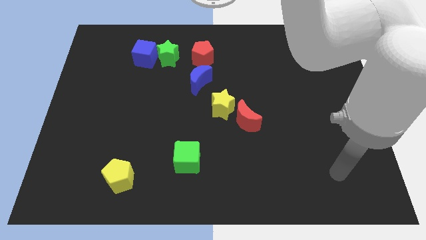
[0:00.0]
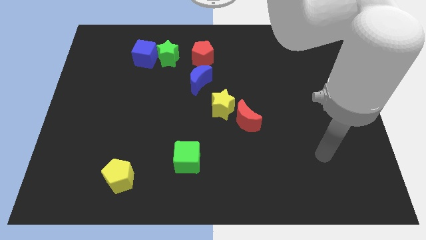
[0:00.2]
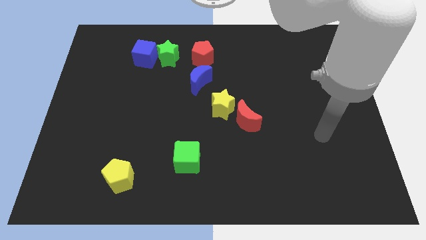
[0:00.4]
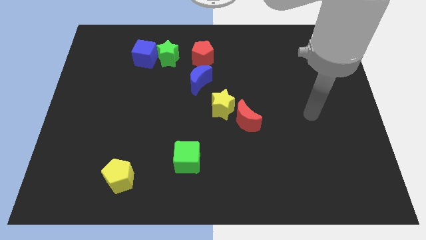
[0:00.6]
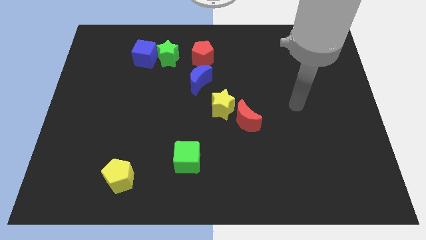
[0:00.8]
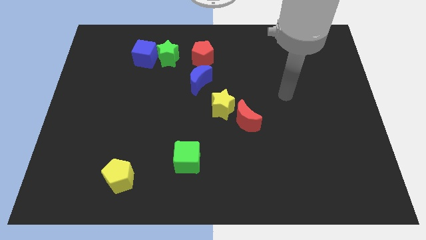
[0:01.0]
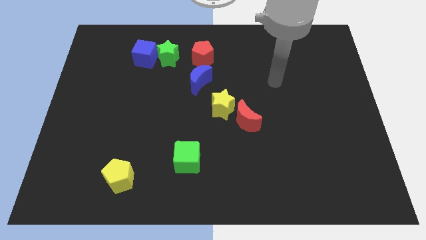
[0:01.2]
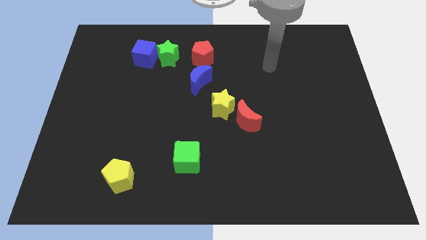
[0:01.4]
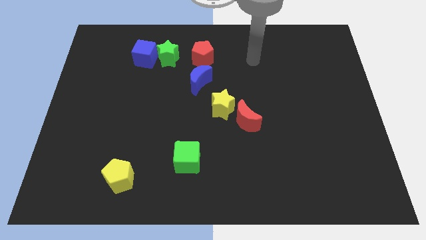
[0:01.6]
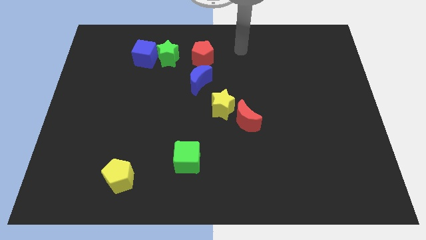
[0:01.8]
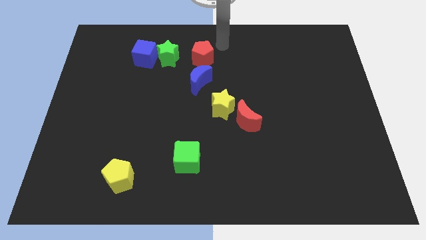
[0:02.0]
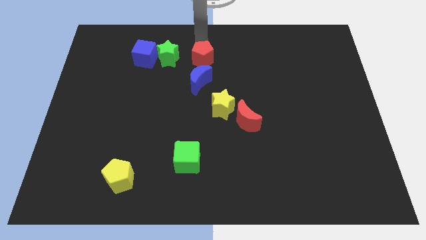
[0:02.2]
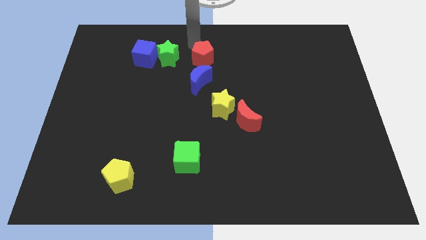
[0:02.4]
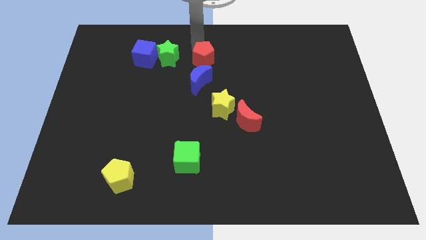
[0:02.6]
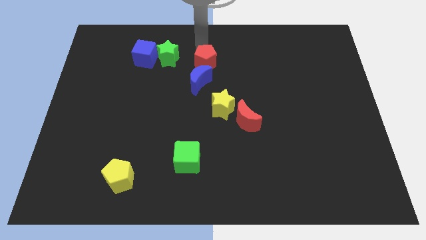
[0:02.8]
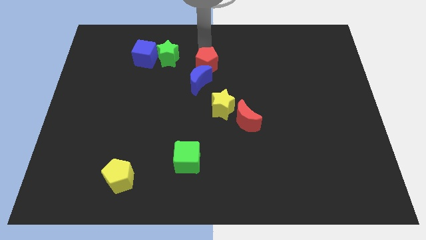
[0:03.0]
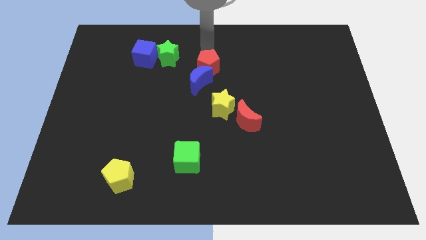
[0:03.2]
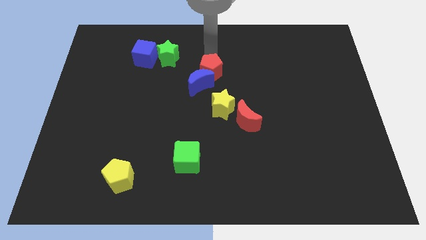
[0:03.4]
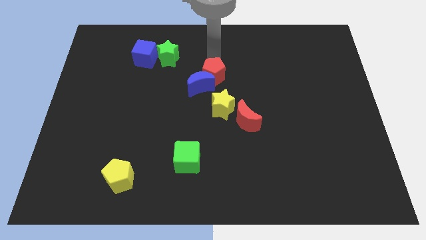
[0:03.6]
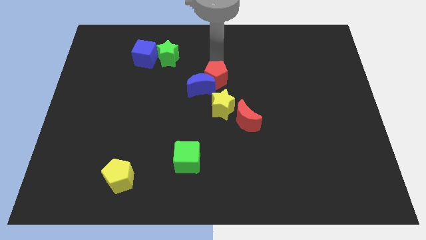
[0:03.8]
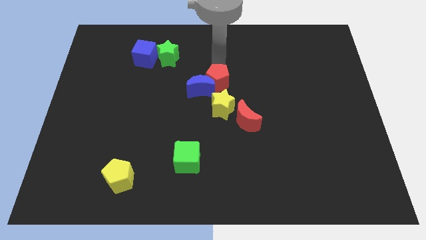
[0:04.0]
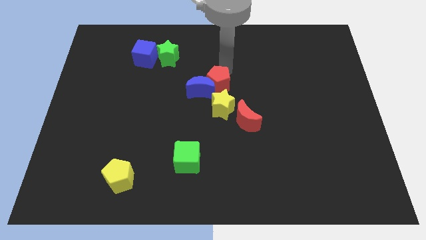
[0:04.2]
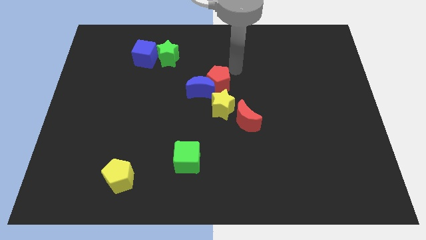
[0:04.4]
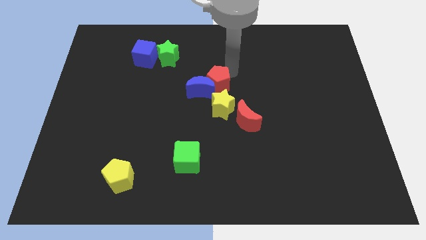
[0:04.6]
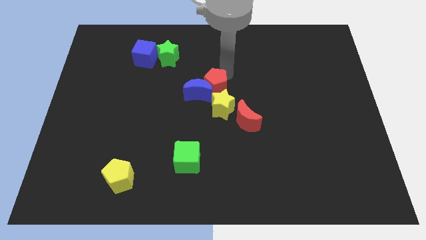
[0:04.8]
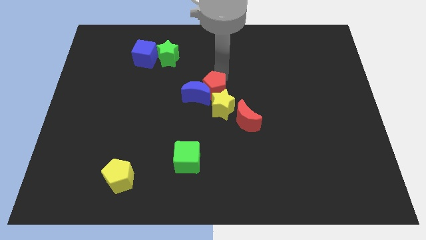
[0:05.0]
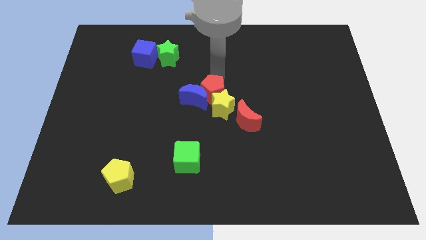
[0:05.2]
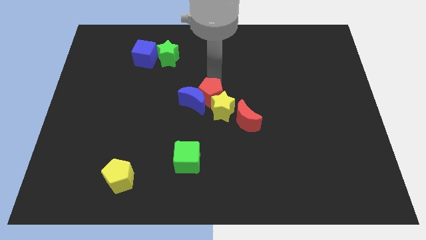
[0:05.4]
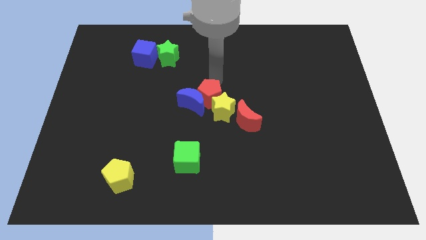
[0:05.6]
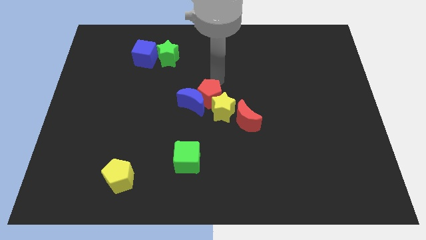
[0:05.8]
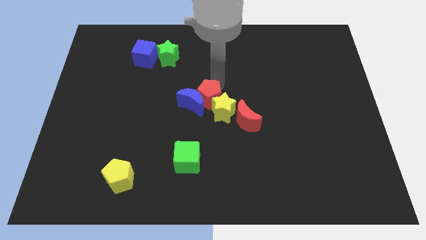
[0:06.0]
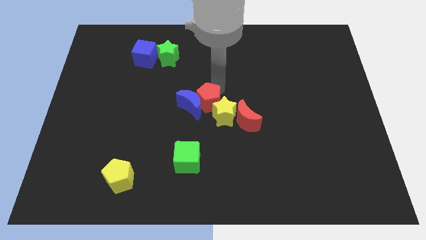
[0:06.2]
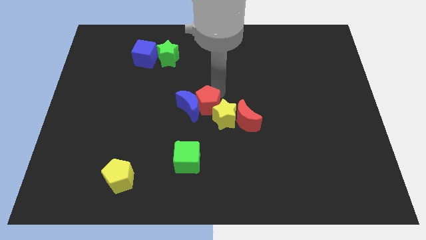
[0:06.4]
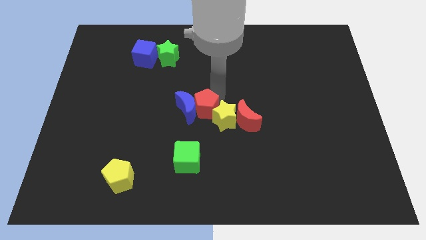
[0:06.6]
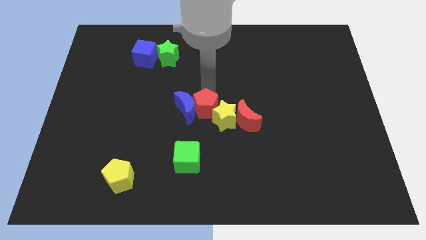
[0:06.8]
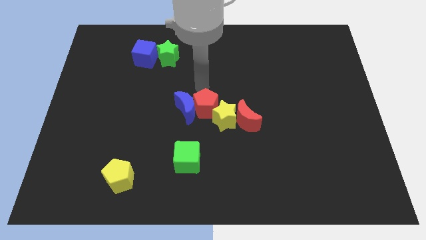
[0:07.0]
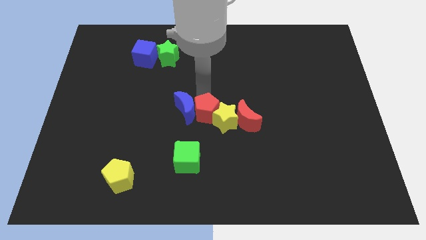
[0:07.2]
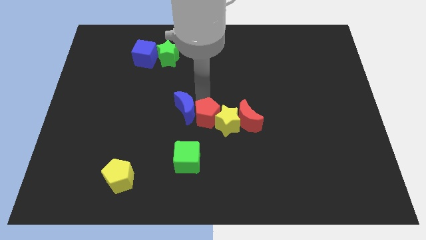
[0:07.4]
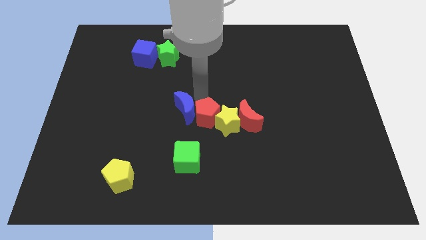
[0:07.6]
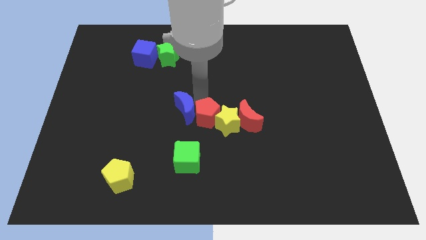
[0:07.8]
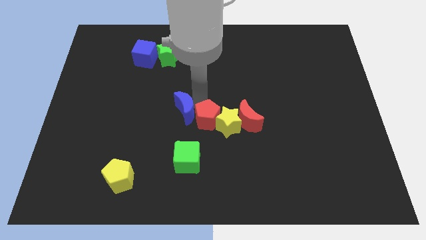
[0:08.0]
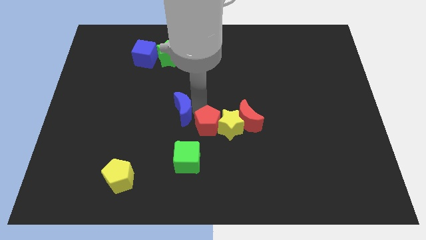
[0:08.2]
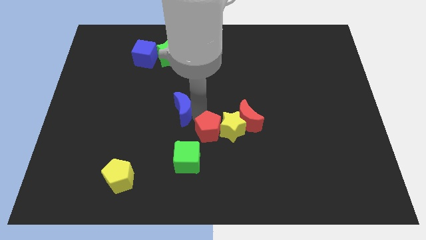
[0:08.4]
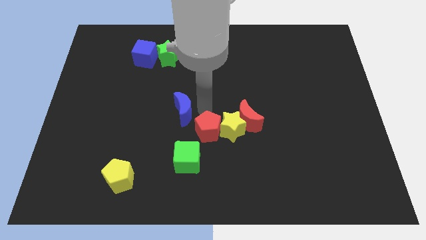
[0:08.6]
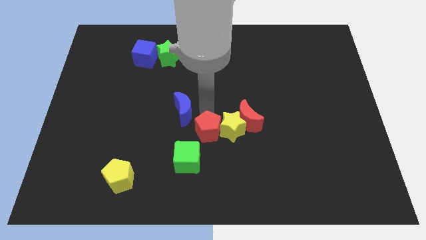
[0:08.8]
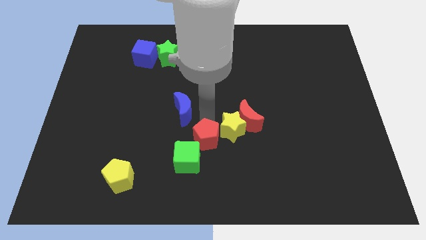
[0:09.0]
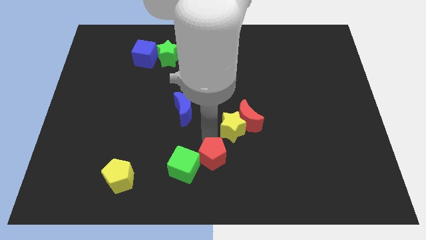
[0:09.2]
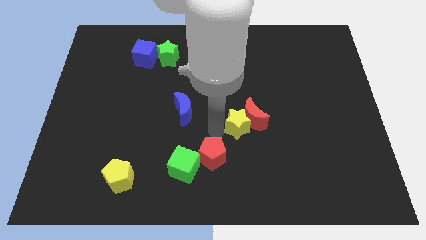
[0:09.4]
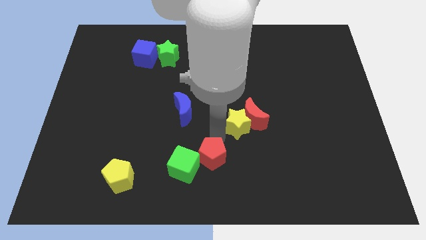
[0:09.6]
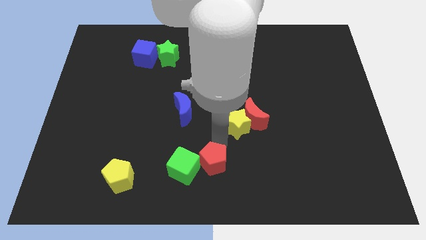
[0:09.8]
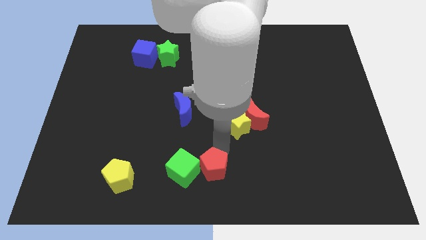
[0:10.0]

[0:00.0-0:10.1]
move the red pentagon to the bottom right of the green cube
